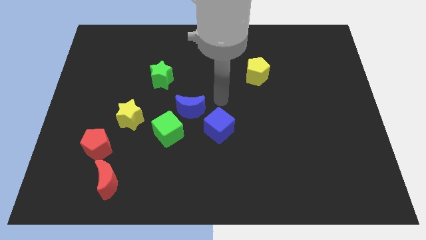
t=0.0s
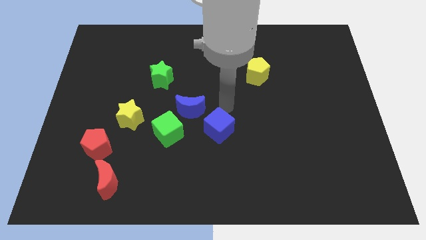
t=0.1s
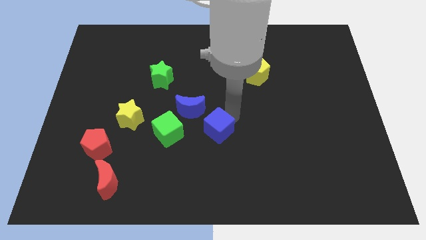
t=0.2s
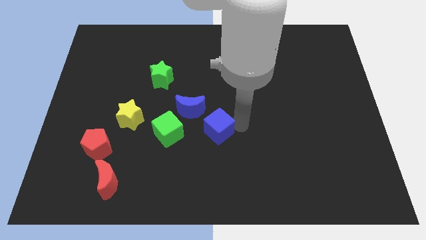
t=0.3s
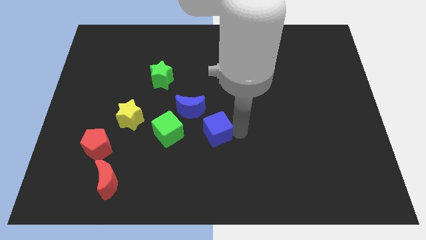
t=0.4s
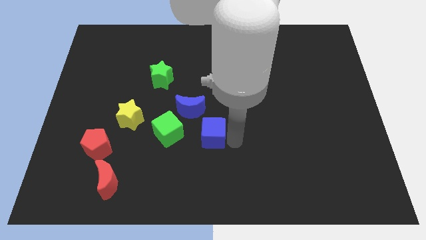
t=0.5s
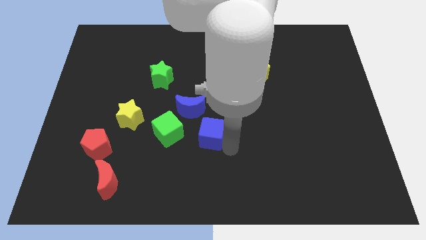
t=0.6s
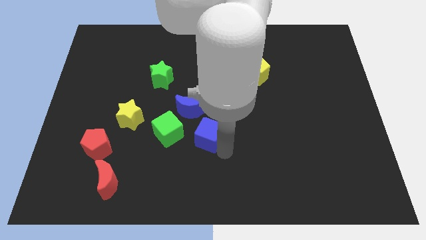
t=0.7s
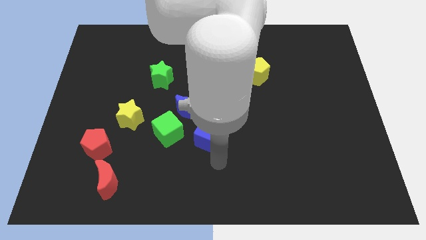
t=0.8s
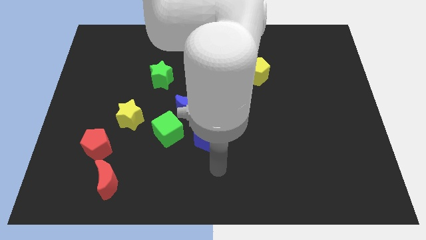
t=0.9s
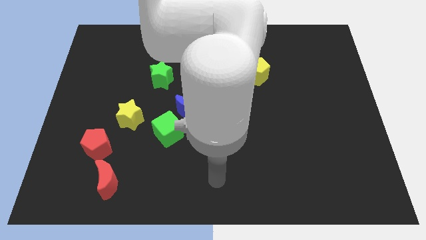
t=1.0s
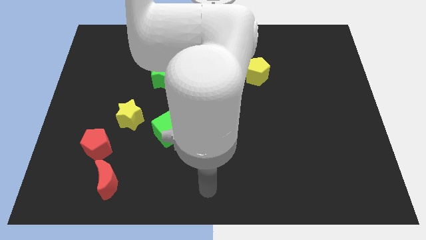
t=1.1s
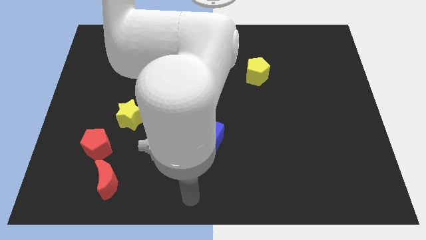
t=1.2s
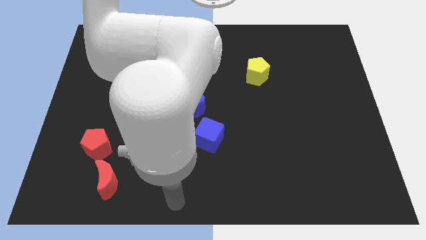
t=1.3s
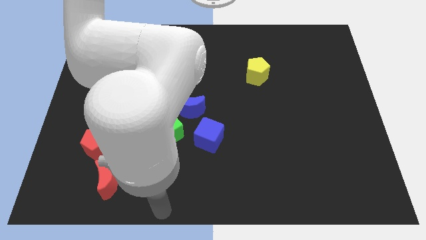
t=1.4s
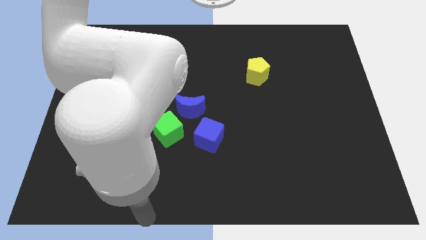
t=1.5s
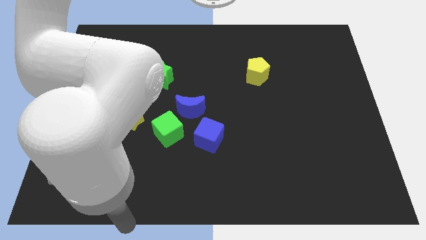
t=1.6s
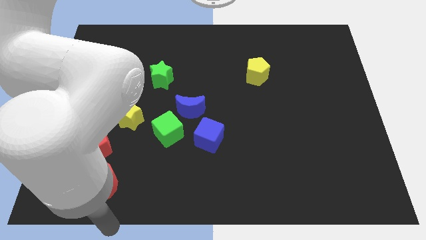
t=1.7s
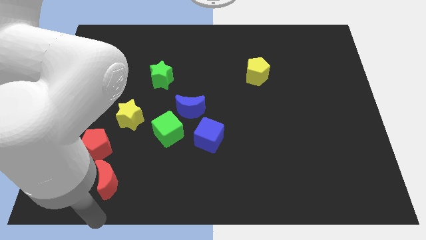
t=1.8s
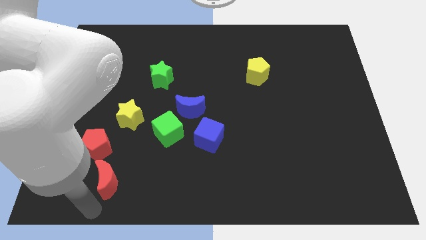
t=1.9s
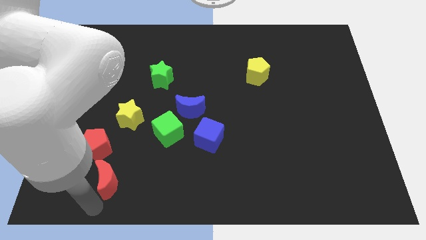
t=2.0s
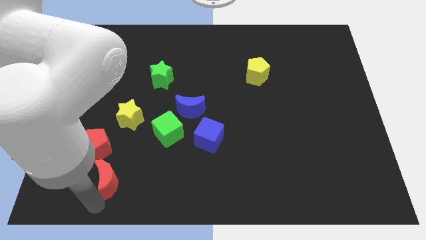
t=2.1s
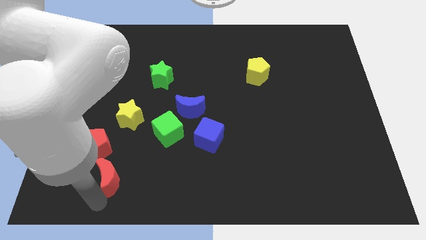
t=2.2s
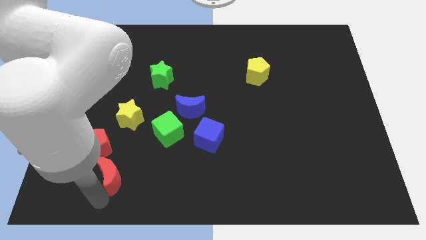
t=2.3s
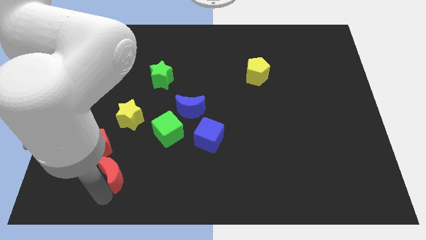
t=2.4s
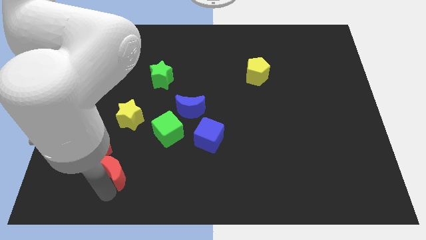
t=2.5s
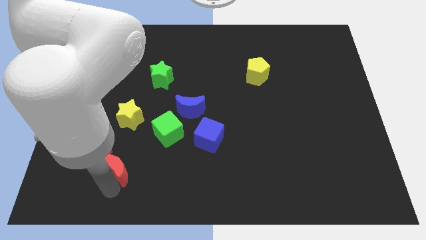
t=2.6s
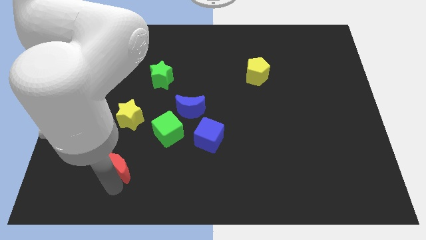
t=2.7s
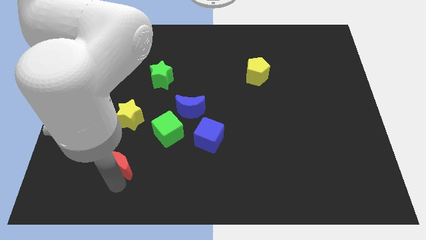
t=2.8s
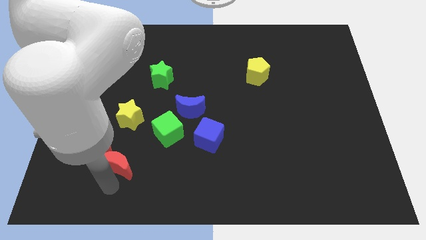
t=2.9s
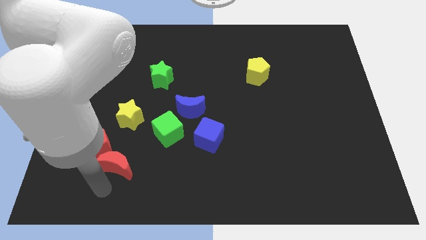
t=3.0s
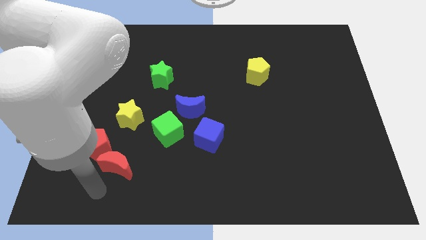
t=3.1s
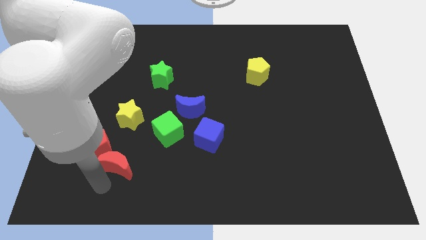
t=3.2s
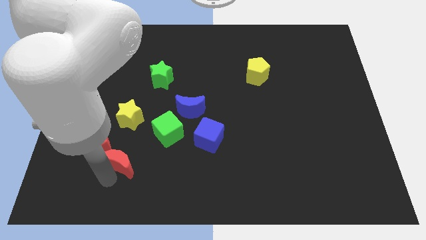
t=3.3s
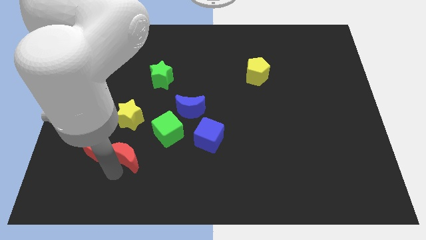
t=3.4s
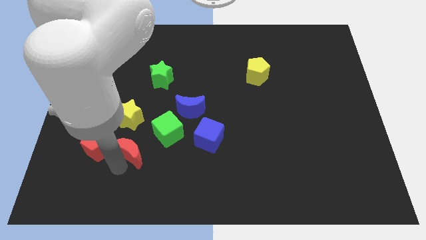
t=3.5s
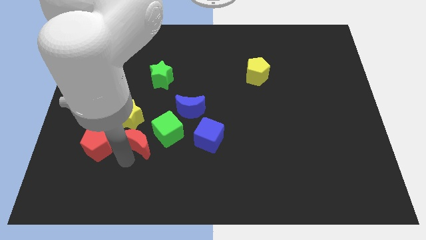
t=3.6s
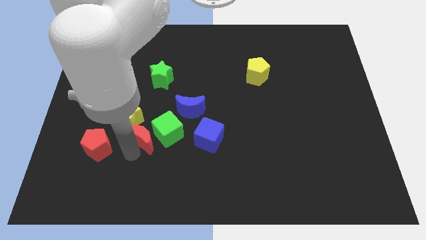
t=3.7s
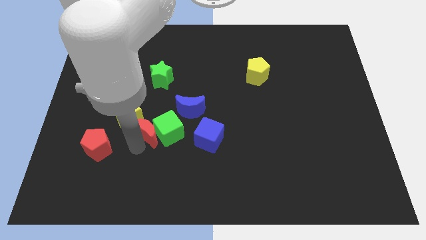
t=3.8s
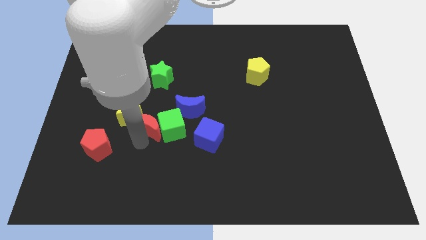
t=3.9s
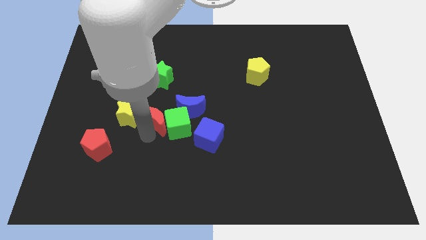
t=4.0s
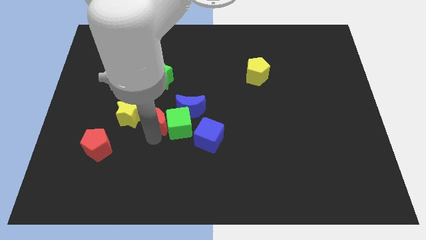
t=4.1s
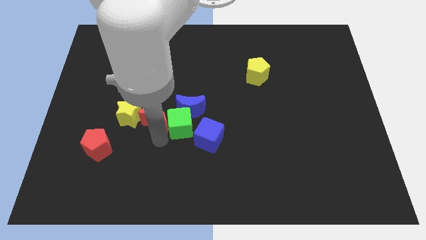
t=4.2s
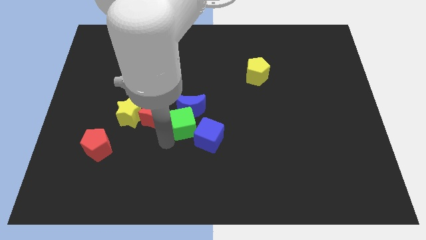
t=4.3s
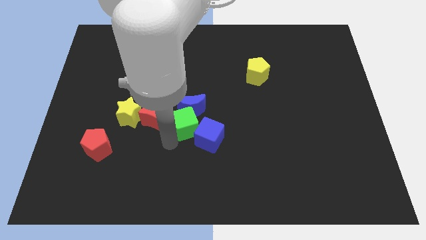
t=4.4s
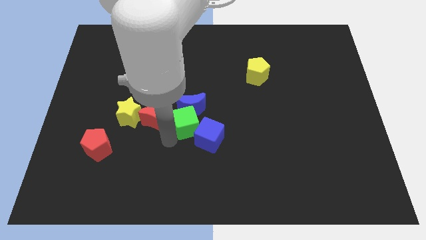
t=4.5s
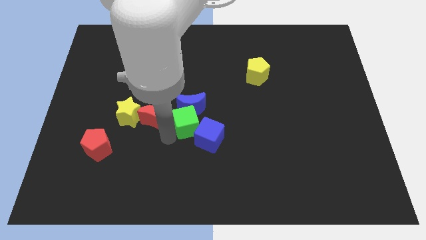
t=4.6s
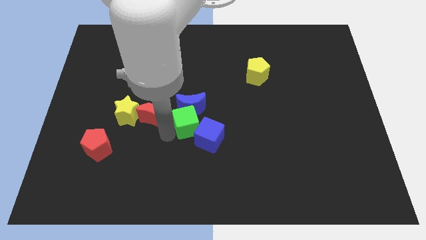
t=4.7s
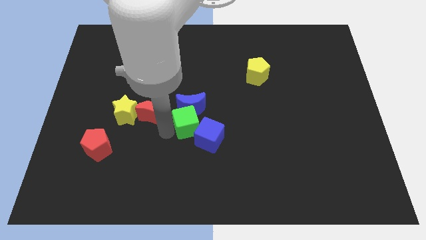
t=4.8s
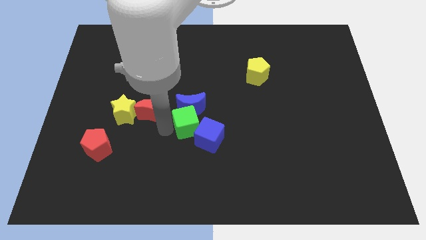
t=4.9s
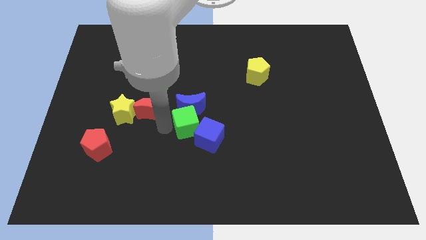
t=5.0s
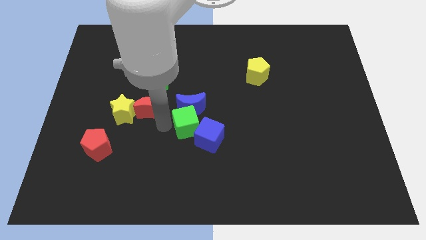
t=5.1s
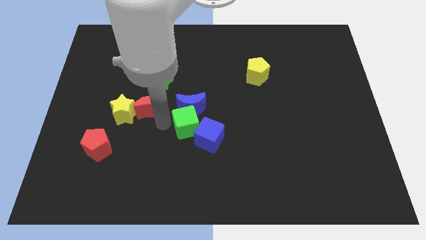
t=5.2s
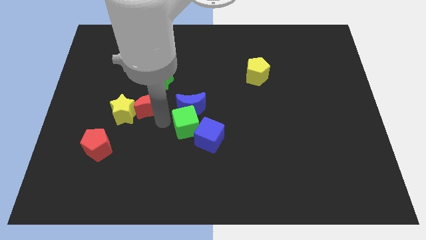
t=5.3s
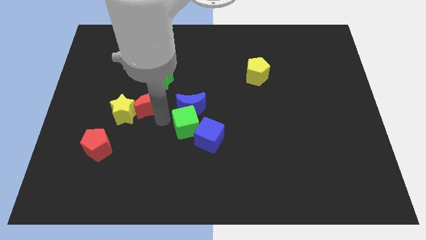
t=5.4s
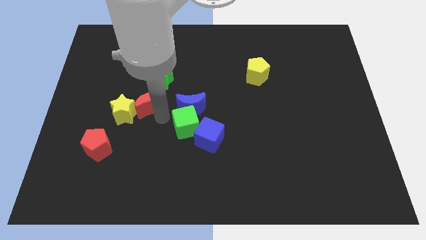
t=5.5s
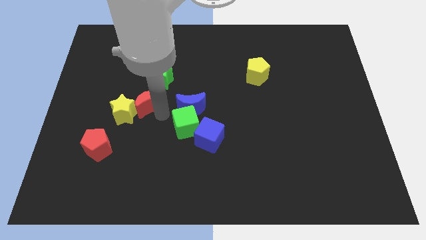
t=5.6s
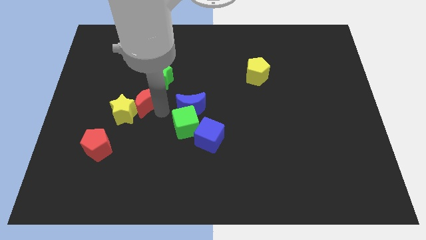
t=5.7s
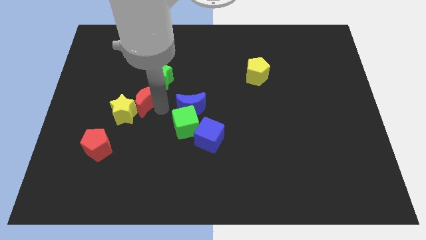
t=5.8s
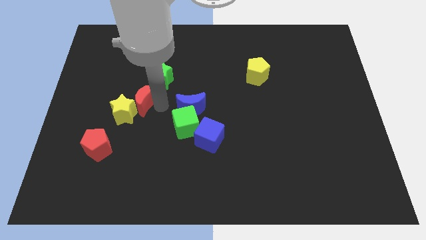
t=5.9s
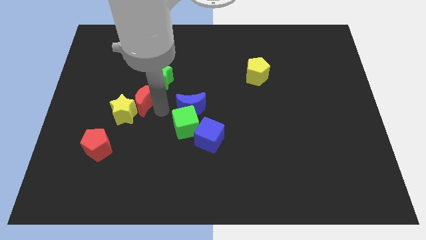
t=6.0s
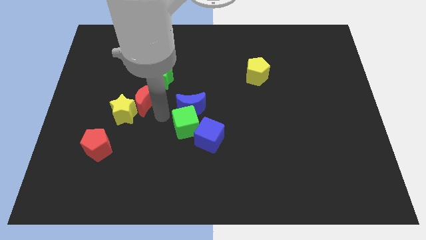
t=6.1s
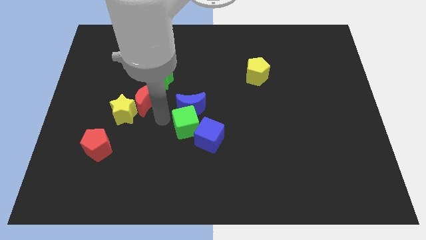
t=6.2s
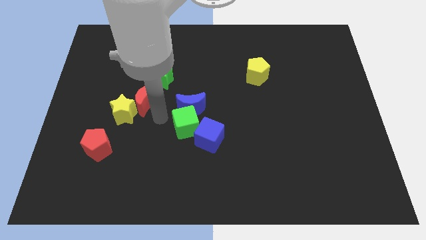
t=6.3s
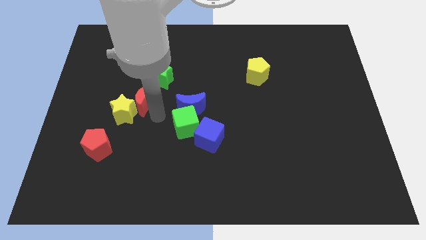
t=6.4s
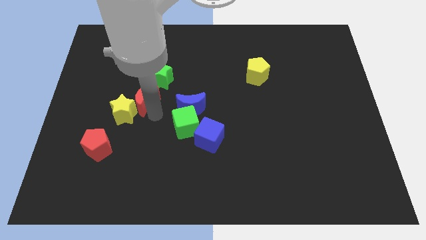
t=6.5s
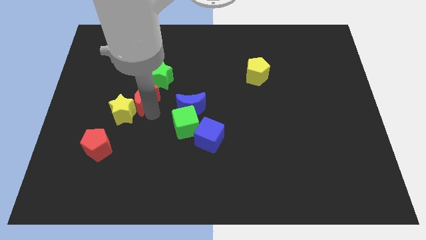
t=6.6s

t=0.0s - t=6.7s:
move the red moon up

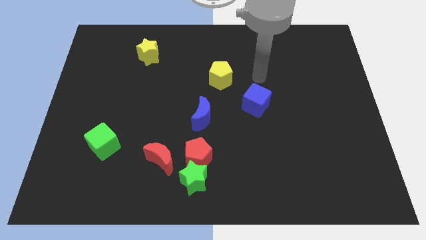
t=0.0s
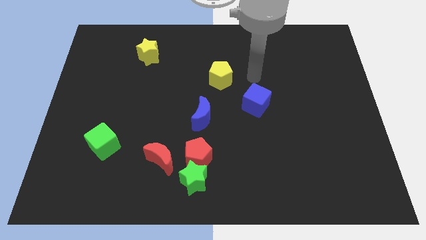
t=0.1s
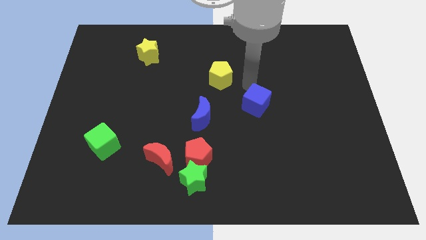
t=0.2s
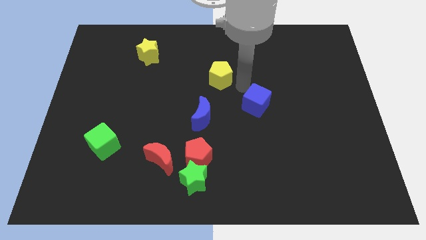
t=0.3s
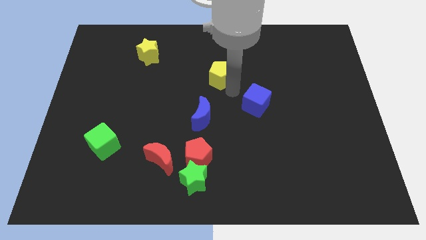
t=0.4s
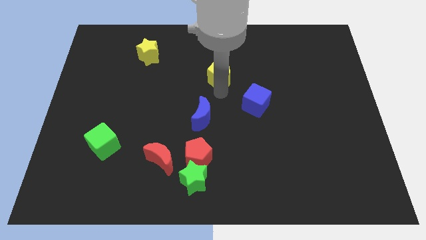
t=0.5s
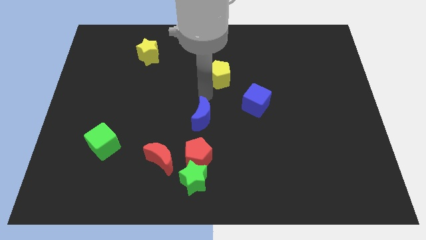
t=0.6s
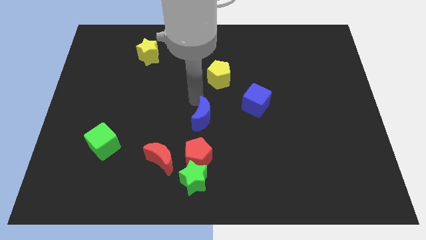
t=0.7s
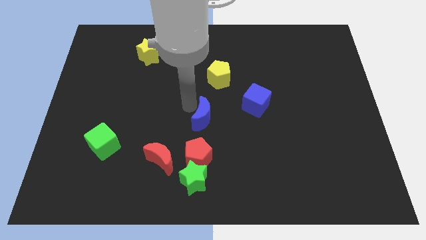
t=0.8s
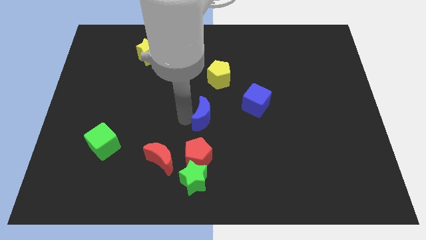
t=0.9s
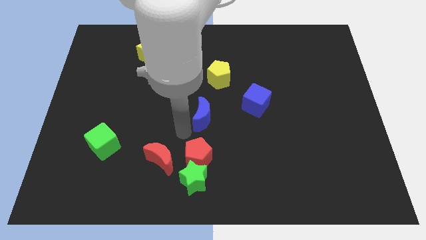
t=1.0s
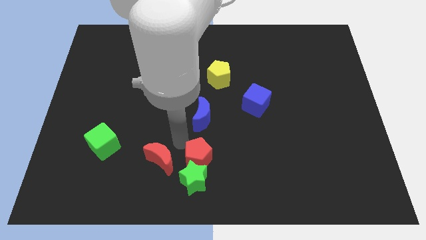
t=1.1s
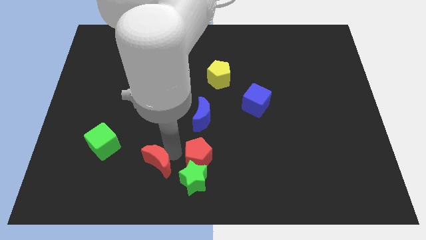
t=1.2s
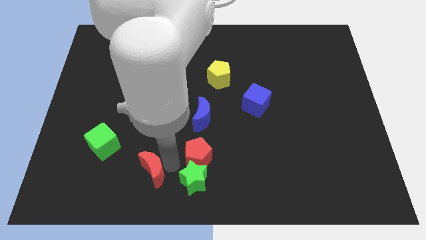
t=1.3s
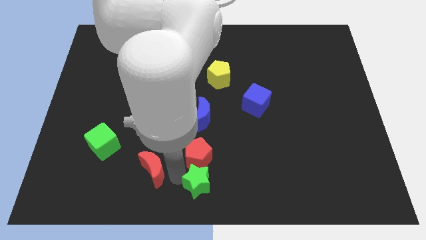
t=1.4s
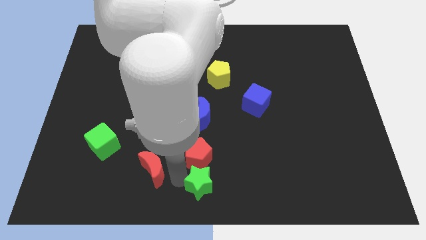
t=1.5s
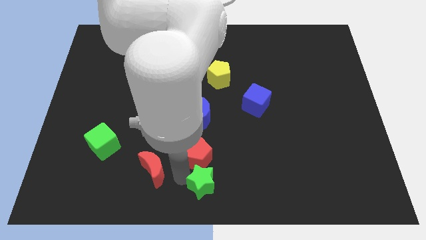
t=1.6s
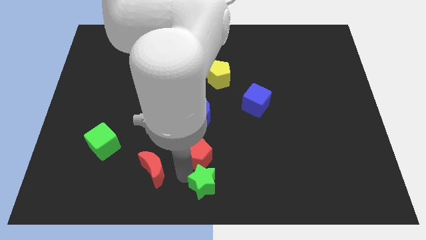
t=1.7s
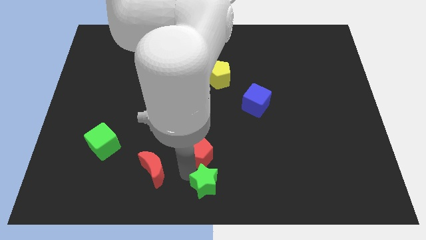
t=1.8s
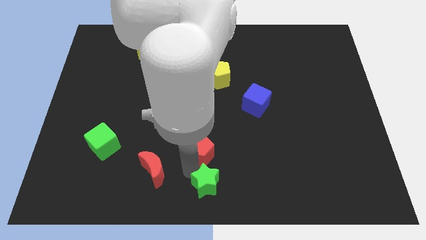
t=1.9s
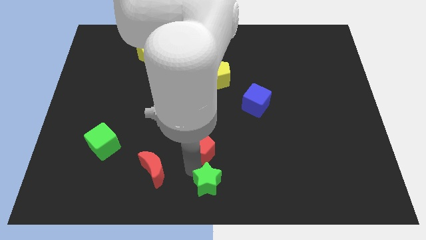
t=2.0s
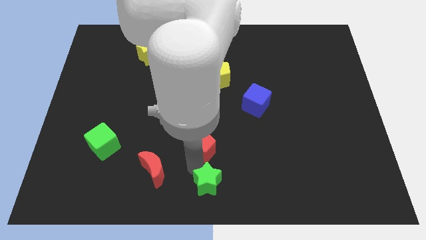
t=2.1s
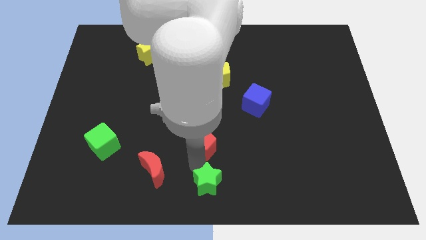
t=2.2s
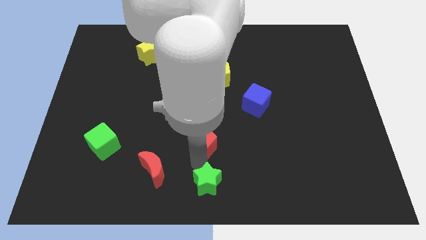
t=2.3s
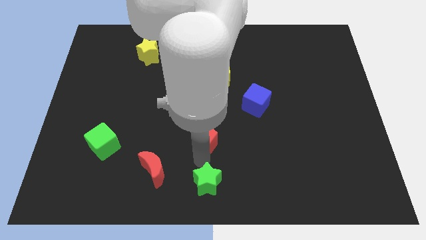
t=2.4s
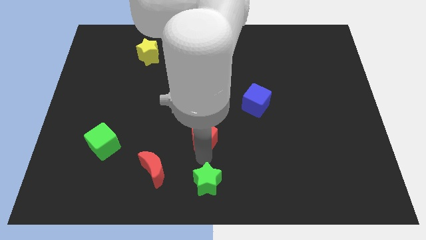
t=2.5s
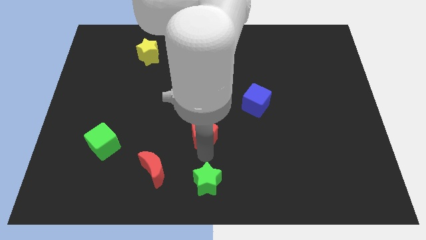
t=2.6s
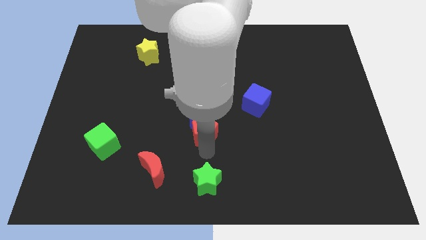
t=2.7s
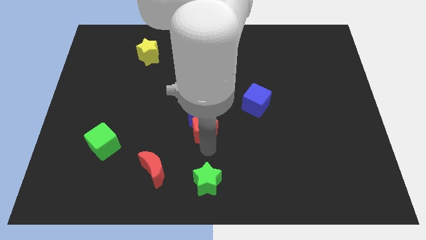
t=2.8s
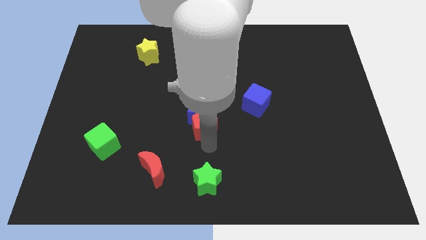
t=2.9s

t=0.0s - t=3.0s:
slide the red pentagon slightly upwards
